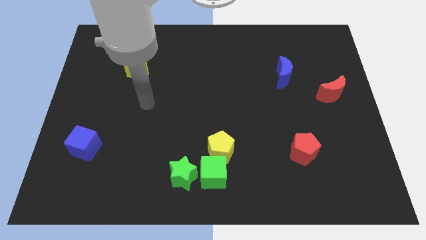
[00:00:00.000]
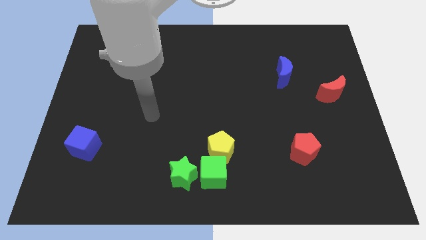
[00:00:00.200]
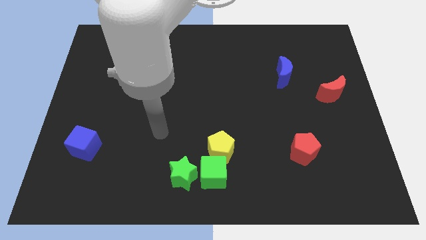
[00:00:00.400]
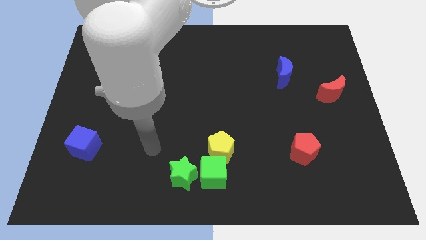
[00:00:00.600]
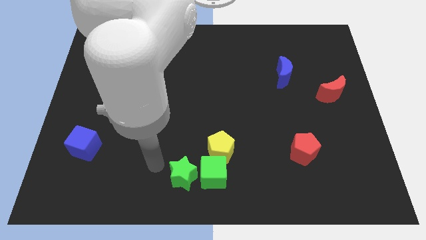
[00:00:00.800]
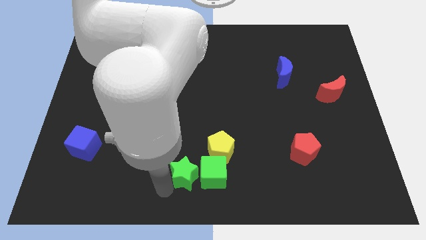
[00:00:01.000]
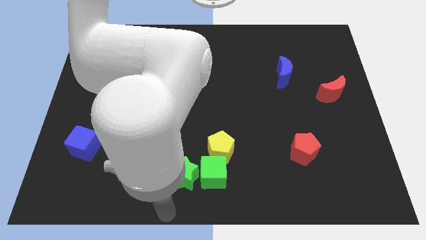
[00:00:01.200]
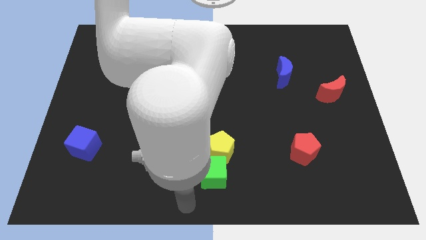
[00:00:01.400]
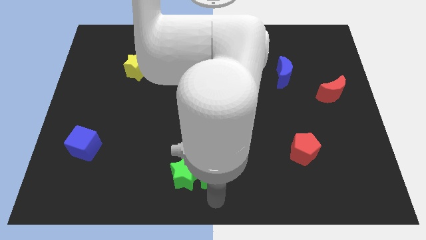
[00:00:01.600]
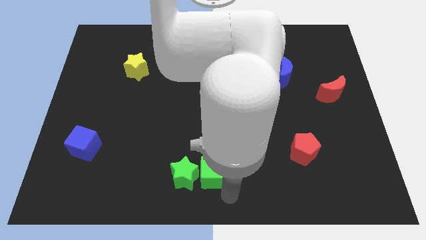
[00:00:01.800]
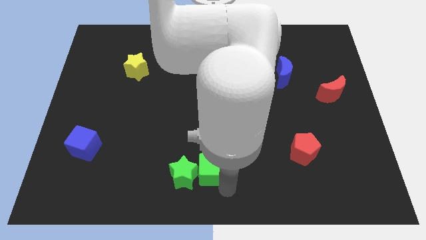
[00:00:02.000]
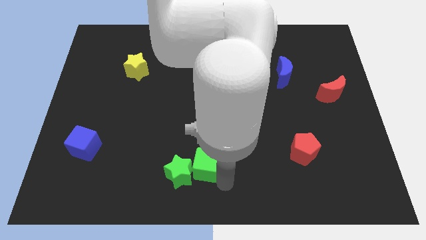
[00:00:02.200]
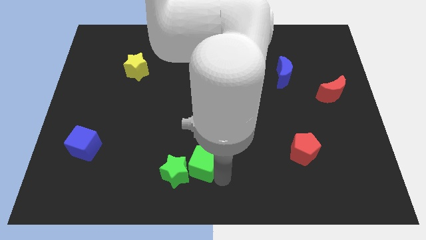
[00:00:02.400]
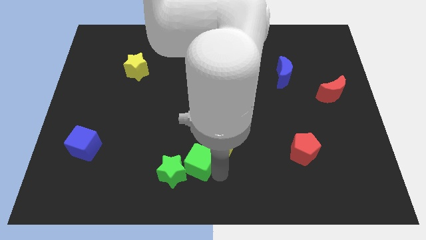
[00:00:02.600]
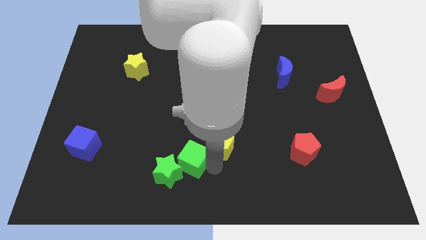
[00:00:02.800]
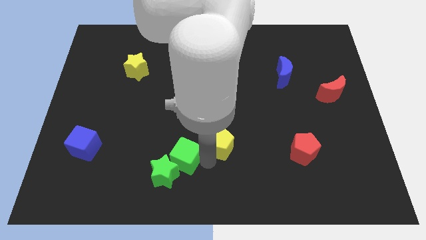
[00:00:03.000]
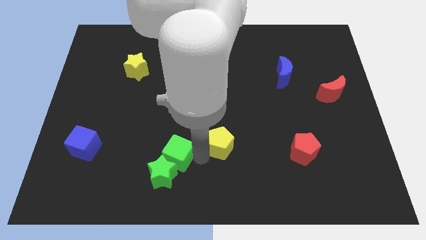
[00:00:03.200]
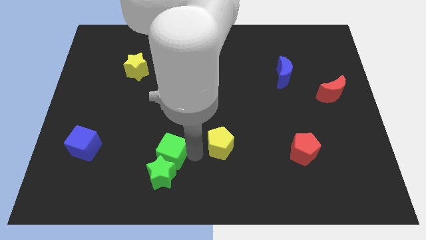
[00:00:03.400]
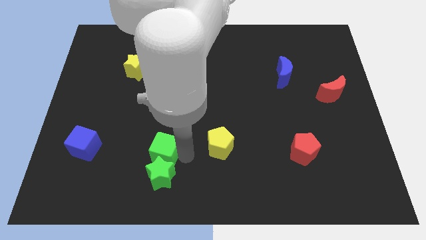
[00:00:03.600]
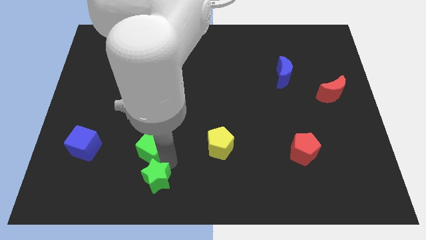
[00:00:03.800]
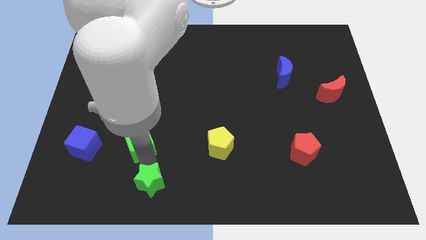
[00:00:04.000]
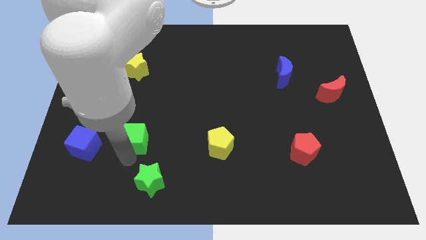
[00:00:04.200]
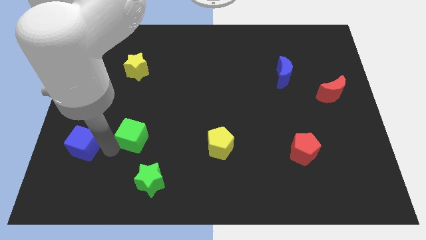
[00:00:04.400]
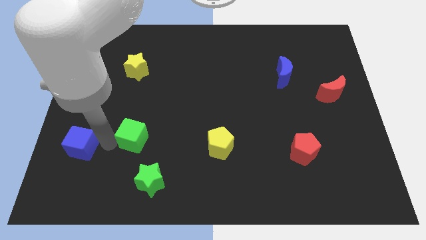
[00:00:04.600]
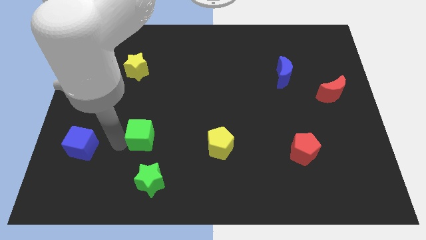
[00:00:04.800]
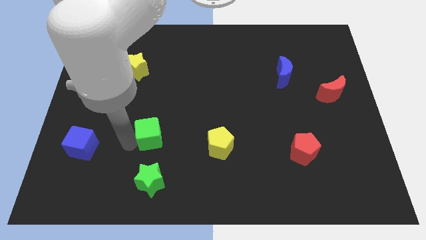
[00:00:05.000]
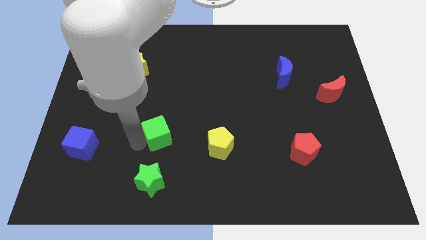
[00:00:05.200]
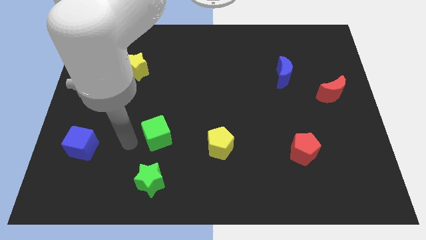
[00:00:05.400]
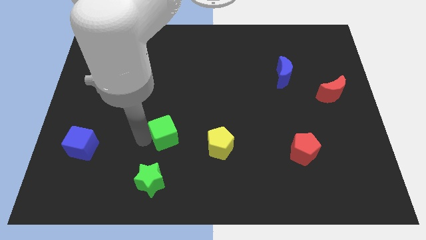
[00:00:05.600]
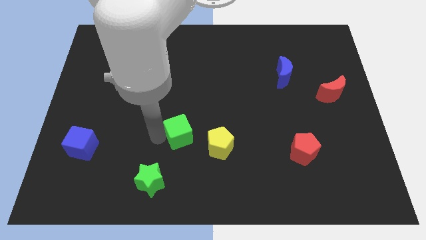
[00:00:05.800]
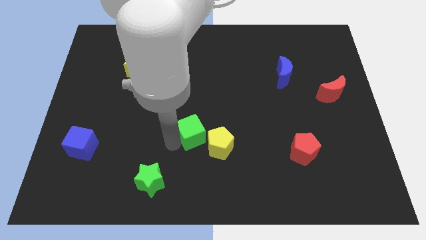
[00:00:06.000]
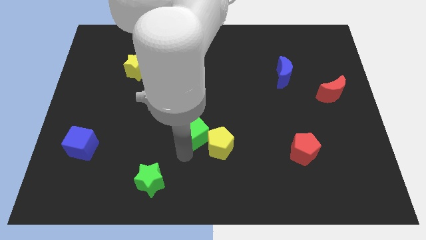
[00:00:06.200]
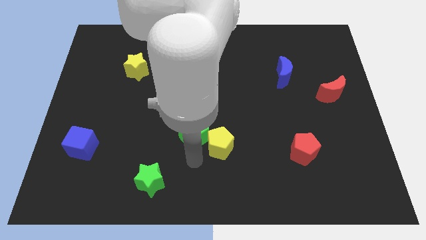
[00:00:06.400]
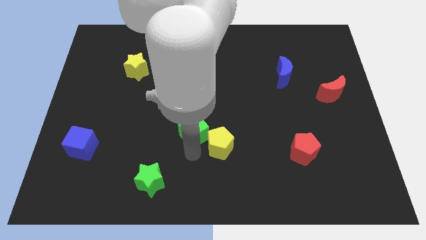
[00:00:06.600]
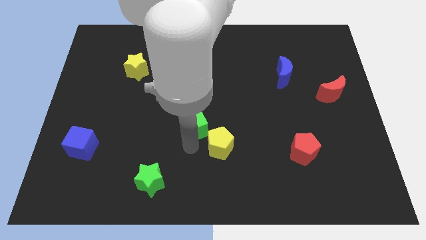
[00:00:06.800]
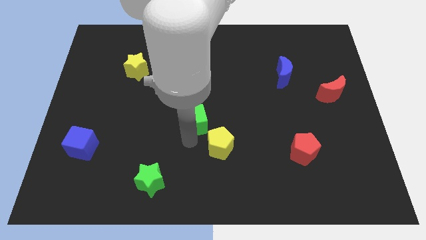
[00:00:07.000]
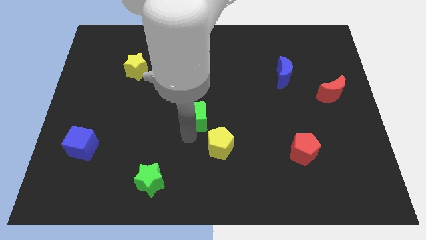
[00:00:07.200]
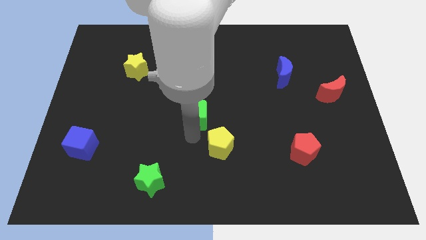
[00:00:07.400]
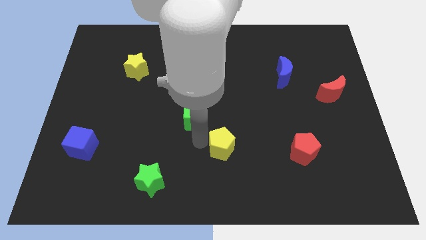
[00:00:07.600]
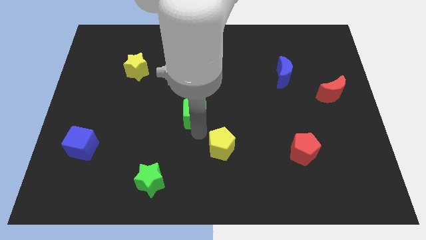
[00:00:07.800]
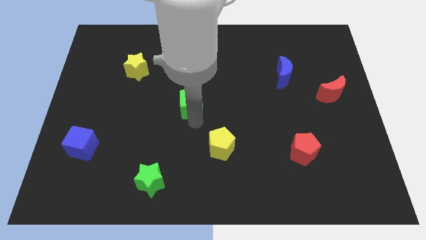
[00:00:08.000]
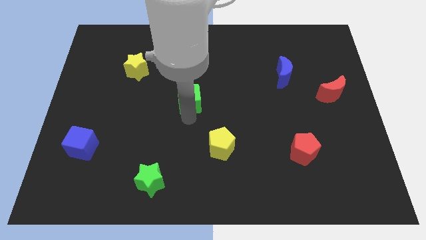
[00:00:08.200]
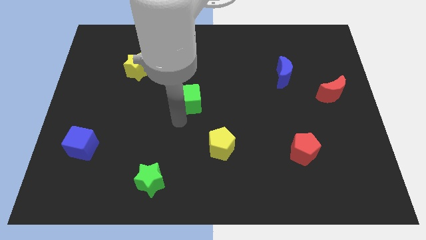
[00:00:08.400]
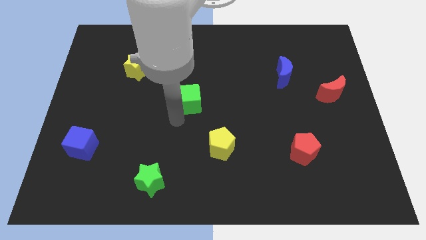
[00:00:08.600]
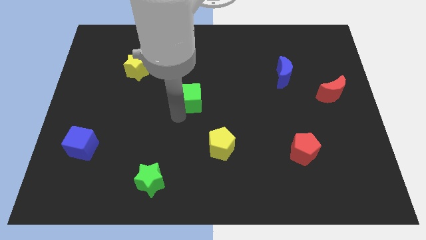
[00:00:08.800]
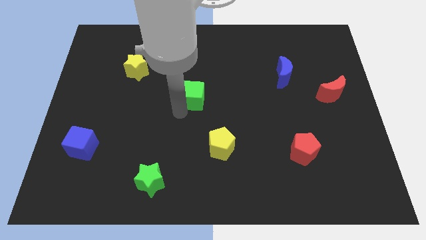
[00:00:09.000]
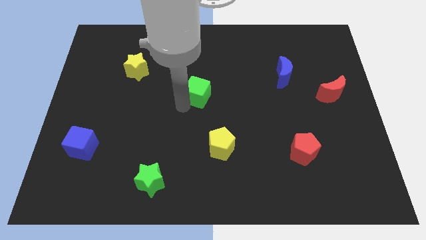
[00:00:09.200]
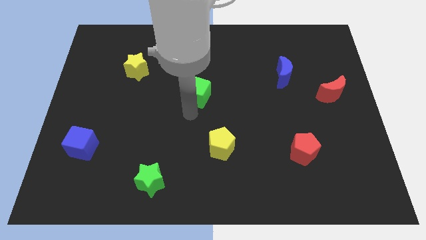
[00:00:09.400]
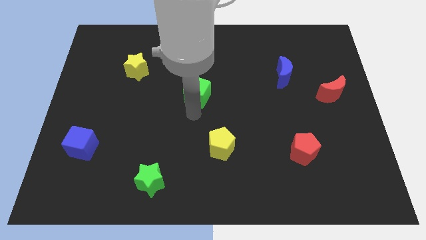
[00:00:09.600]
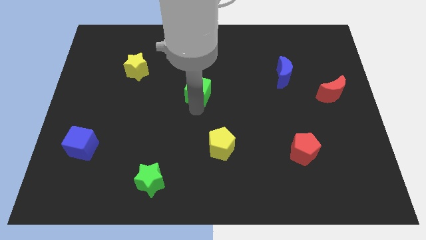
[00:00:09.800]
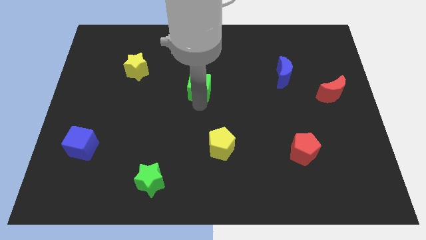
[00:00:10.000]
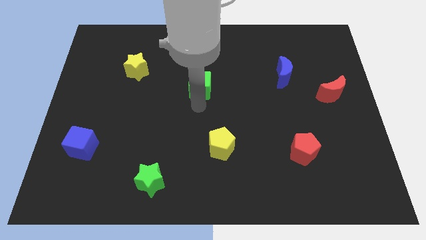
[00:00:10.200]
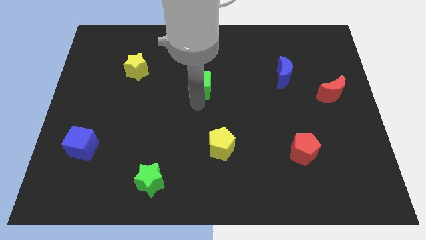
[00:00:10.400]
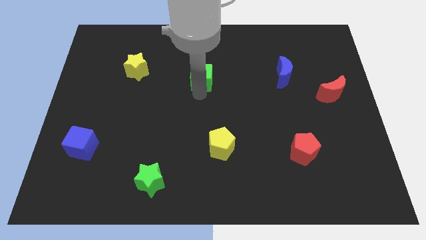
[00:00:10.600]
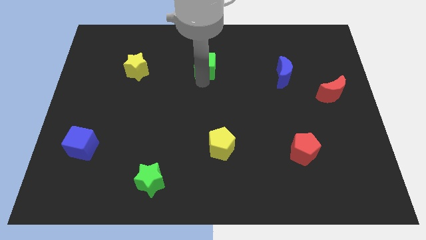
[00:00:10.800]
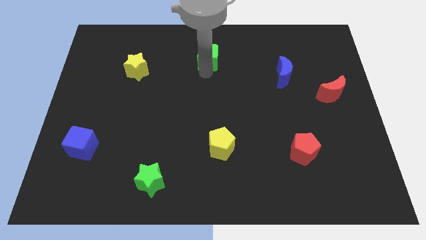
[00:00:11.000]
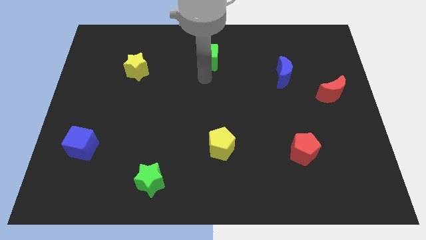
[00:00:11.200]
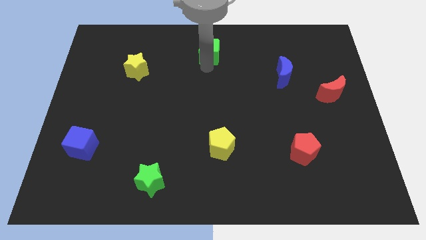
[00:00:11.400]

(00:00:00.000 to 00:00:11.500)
slide the green cube to the top side

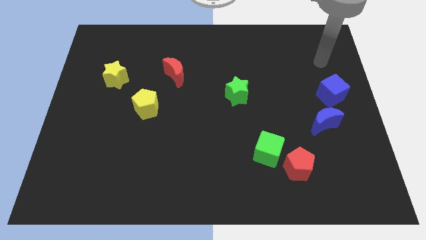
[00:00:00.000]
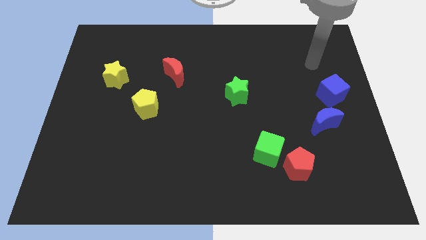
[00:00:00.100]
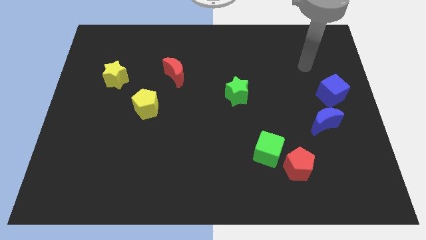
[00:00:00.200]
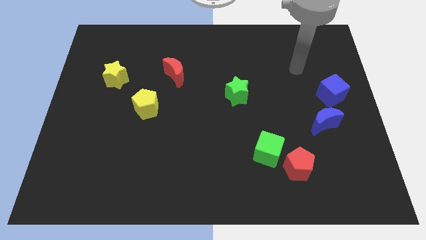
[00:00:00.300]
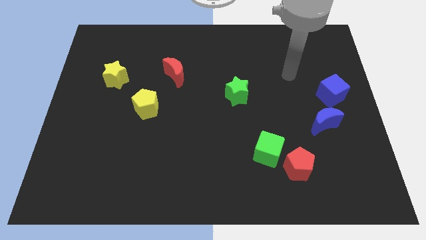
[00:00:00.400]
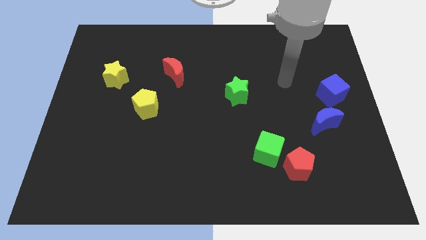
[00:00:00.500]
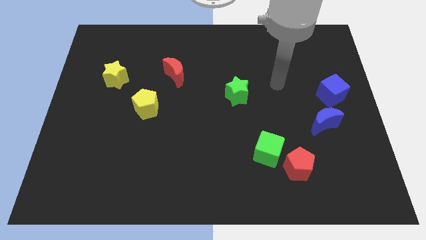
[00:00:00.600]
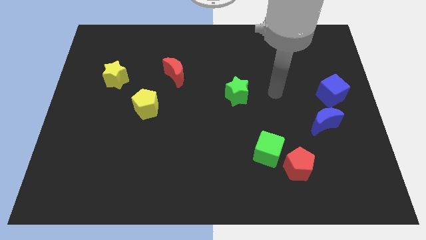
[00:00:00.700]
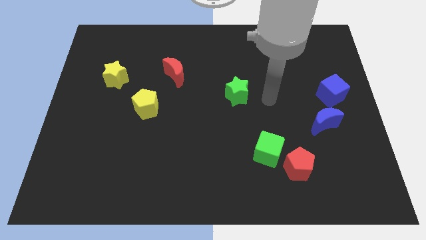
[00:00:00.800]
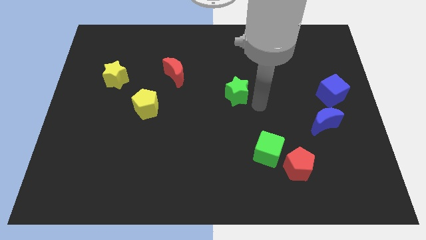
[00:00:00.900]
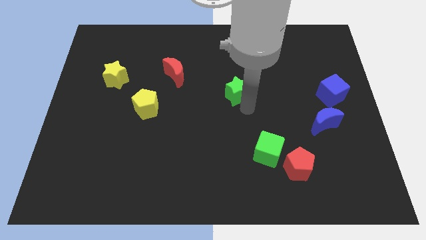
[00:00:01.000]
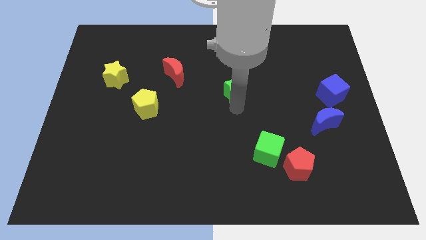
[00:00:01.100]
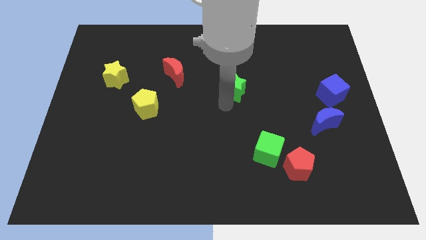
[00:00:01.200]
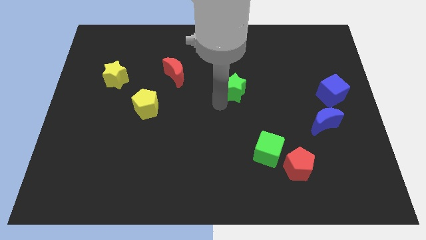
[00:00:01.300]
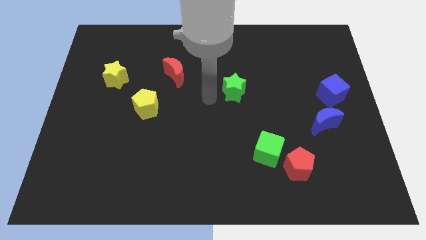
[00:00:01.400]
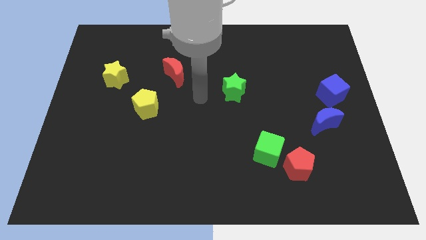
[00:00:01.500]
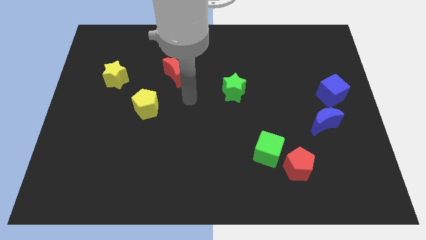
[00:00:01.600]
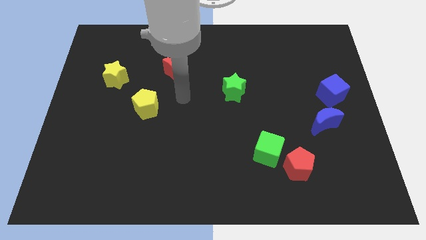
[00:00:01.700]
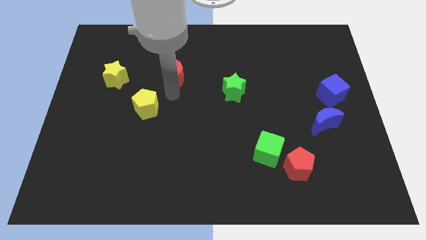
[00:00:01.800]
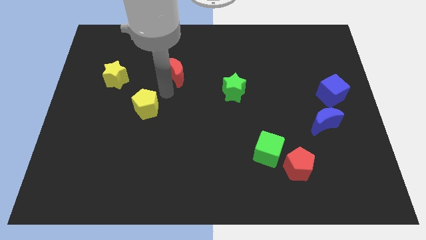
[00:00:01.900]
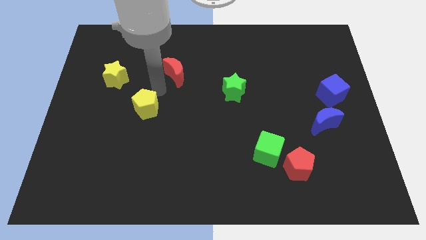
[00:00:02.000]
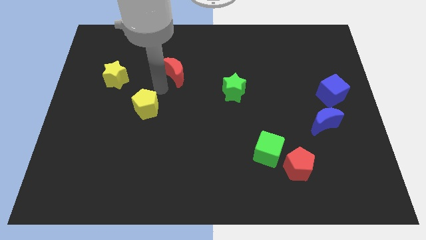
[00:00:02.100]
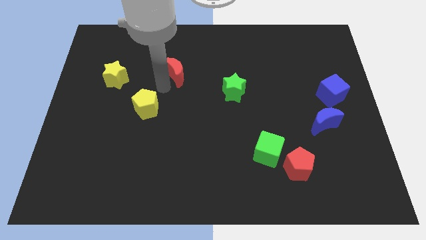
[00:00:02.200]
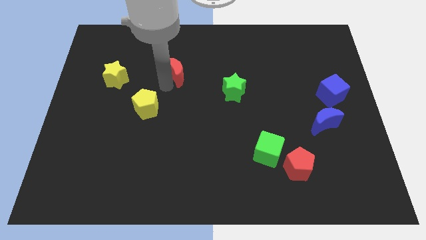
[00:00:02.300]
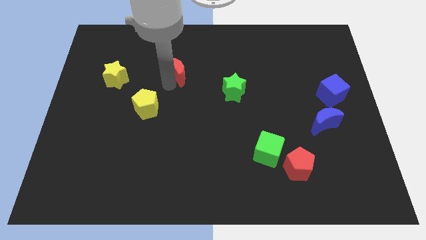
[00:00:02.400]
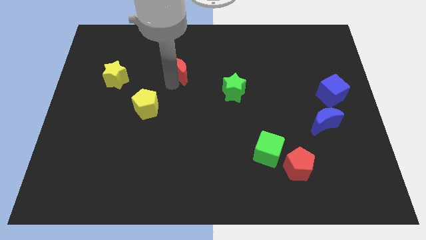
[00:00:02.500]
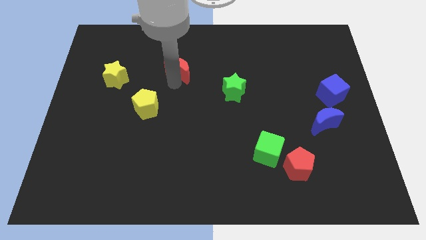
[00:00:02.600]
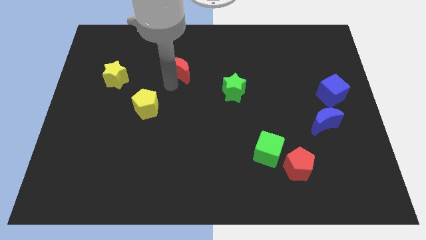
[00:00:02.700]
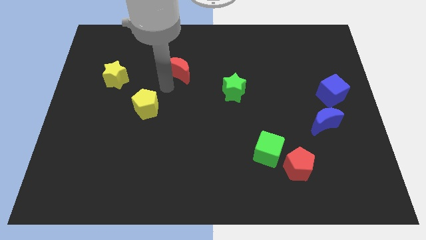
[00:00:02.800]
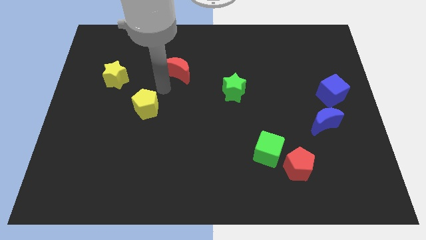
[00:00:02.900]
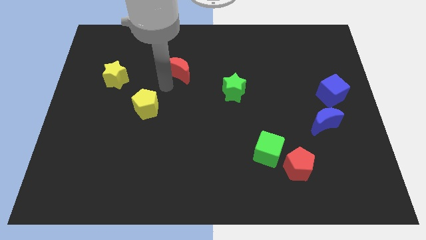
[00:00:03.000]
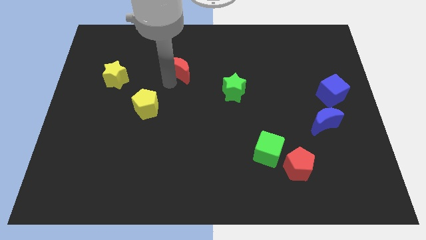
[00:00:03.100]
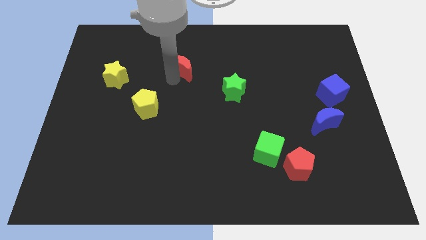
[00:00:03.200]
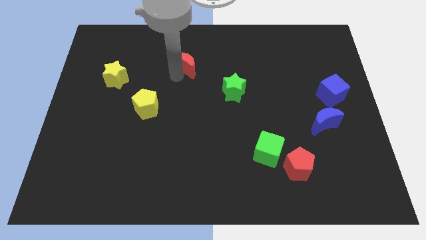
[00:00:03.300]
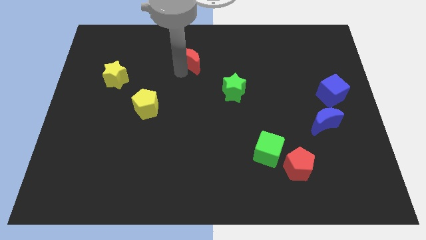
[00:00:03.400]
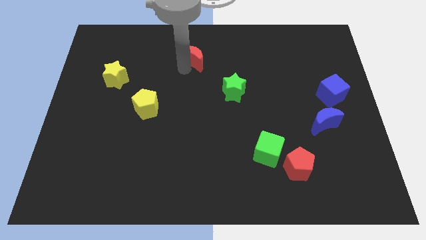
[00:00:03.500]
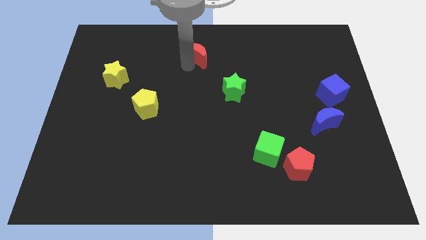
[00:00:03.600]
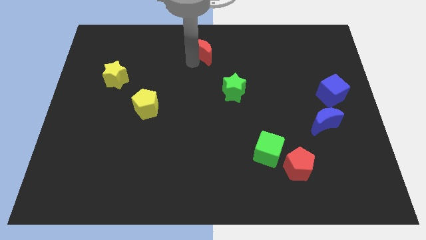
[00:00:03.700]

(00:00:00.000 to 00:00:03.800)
slide the red moon to the top
